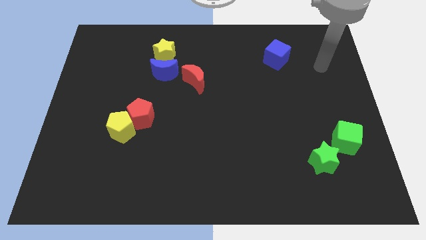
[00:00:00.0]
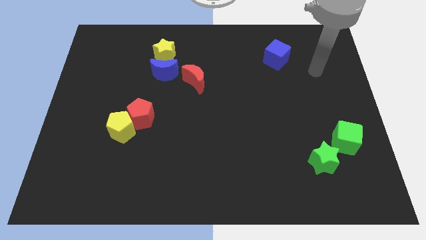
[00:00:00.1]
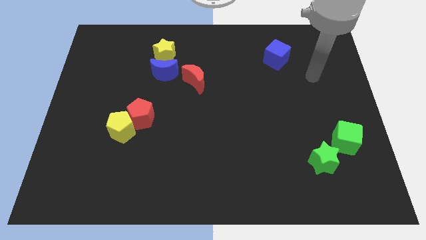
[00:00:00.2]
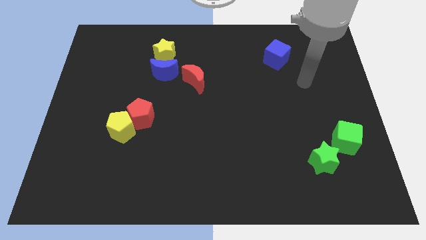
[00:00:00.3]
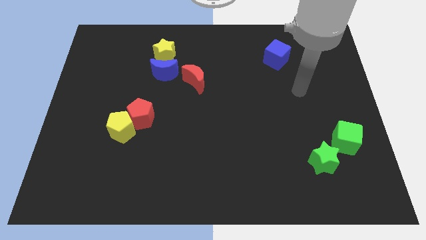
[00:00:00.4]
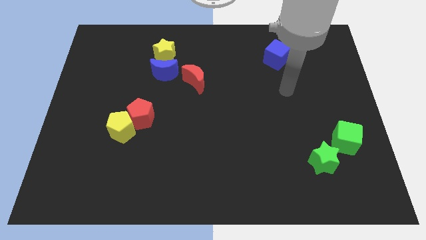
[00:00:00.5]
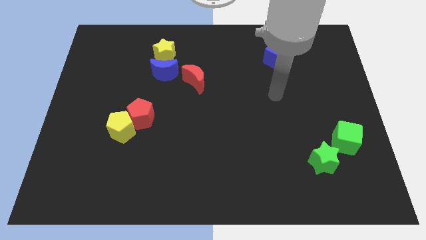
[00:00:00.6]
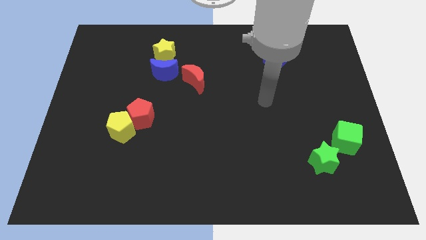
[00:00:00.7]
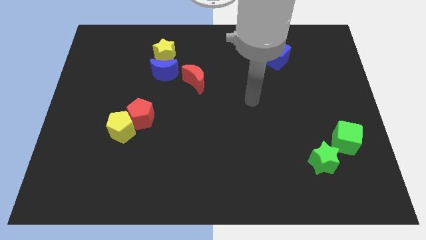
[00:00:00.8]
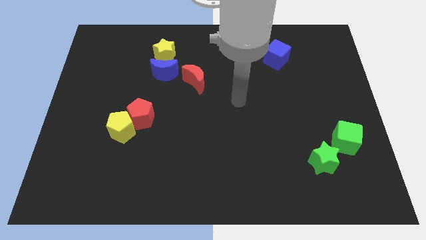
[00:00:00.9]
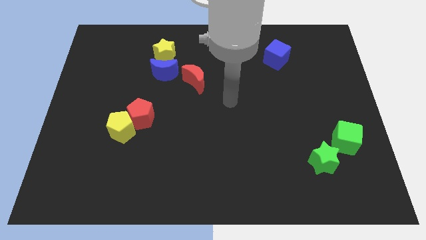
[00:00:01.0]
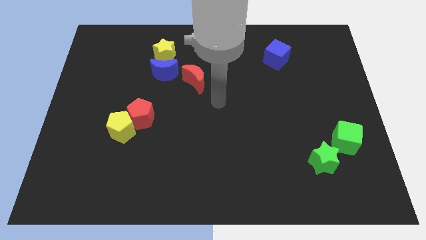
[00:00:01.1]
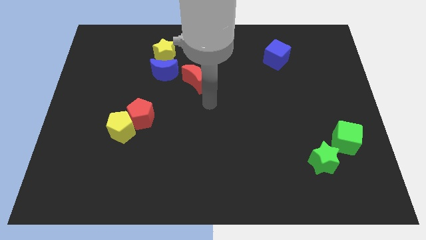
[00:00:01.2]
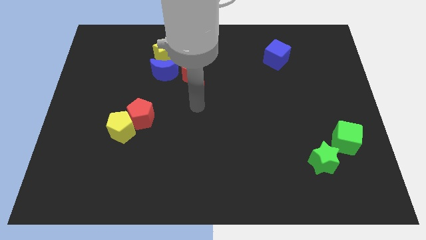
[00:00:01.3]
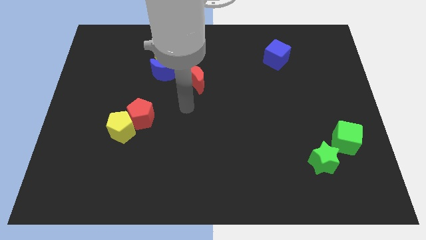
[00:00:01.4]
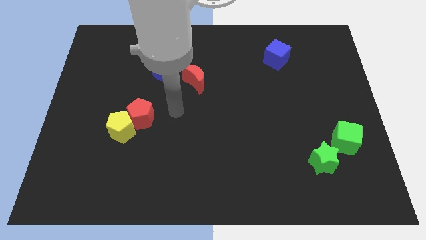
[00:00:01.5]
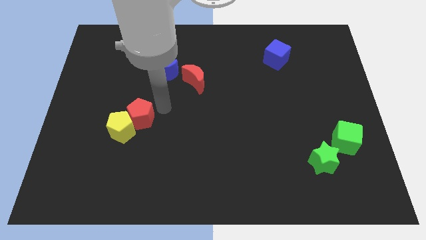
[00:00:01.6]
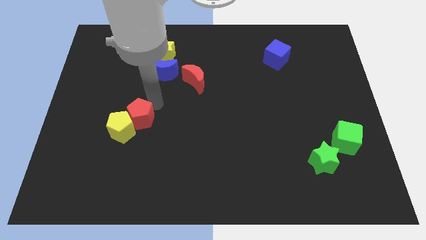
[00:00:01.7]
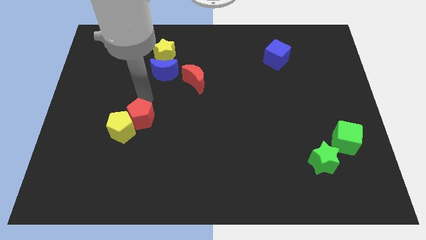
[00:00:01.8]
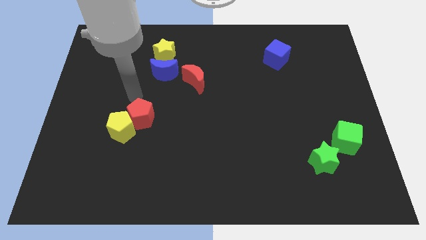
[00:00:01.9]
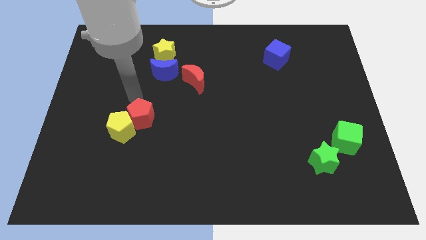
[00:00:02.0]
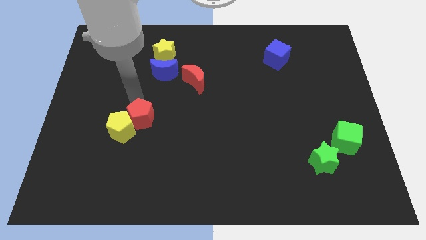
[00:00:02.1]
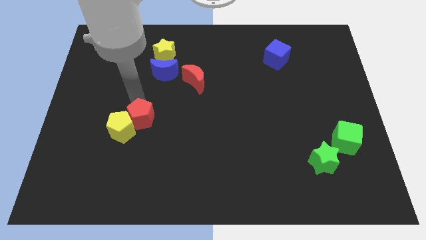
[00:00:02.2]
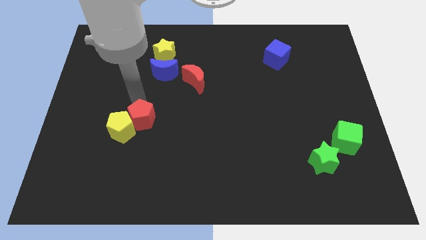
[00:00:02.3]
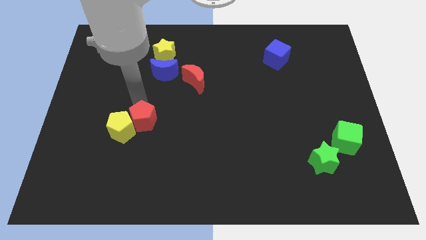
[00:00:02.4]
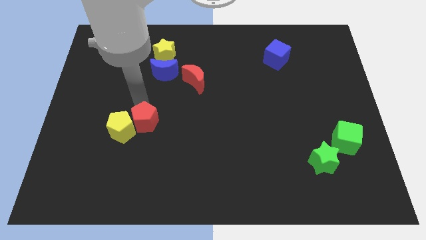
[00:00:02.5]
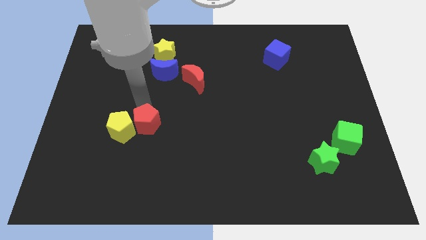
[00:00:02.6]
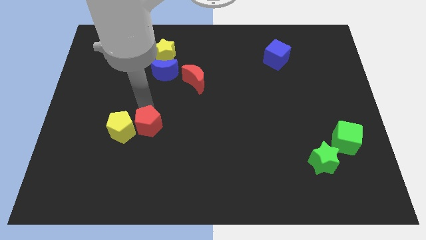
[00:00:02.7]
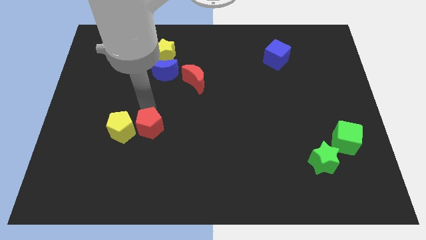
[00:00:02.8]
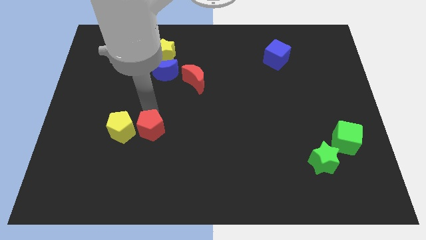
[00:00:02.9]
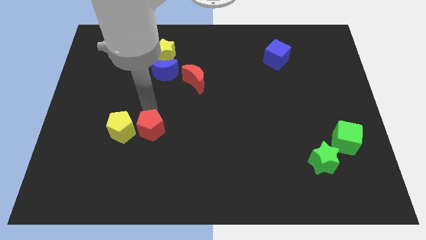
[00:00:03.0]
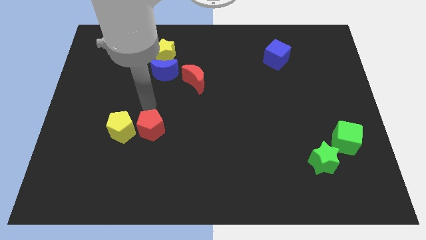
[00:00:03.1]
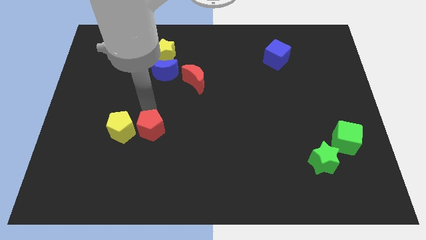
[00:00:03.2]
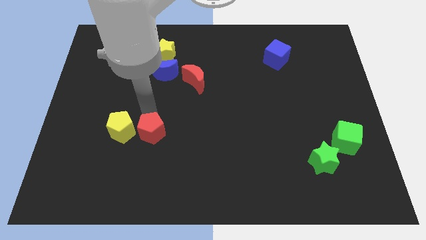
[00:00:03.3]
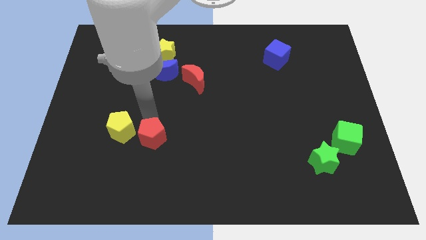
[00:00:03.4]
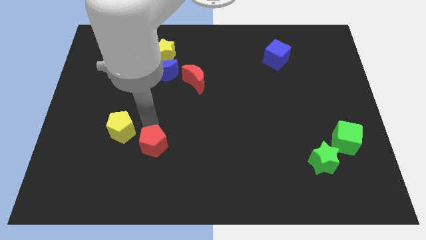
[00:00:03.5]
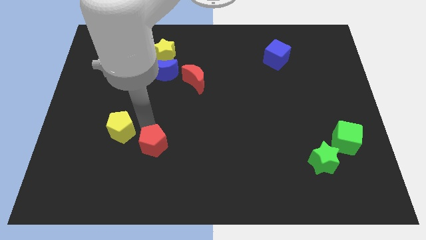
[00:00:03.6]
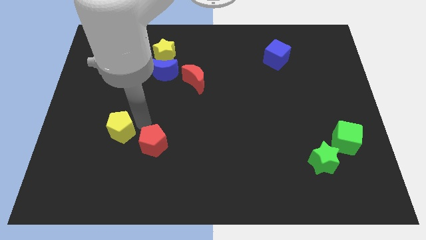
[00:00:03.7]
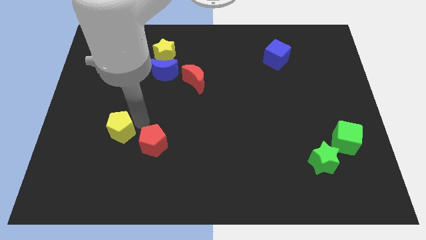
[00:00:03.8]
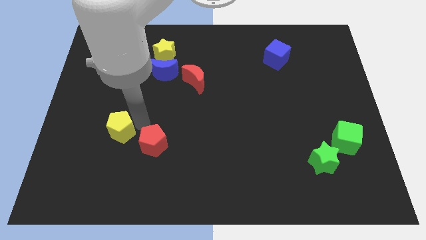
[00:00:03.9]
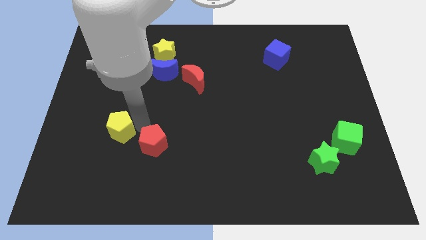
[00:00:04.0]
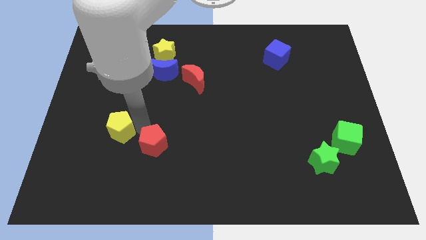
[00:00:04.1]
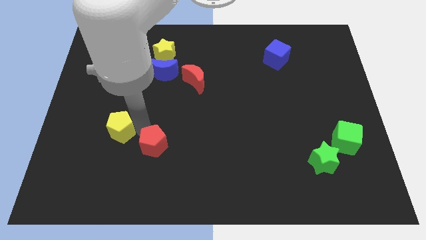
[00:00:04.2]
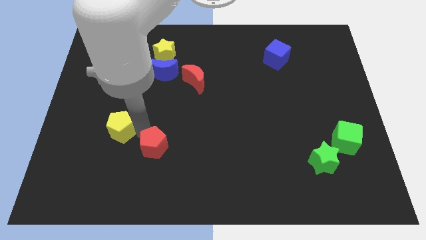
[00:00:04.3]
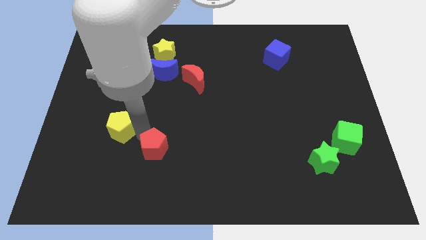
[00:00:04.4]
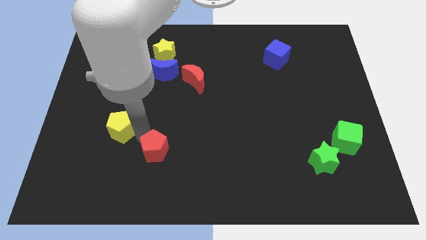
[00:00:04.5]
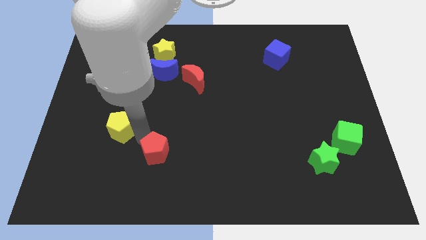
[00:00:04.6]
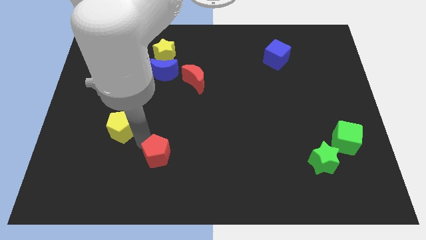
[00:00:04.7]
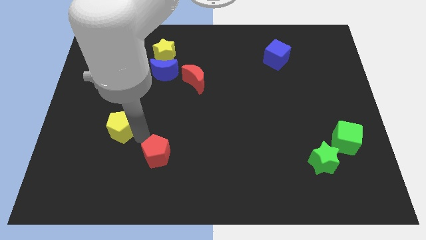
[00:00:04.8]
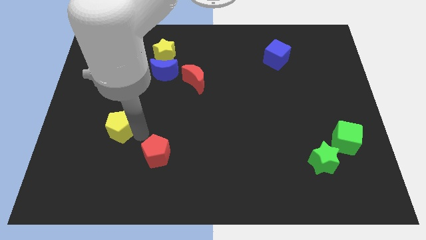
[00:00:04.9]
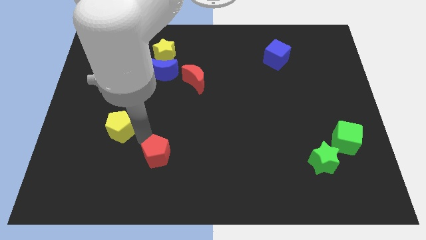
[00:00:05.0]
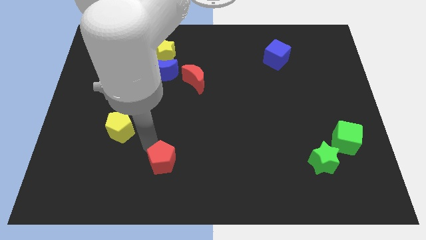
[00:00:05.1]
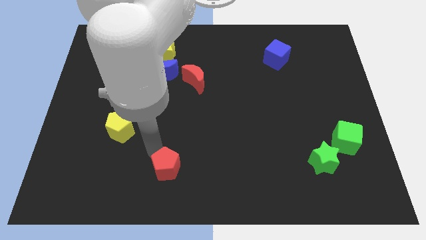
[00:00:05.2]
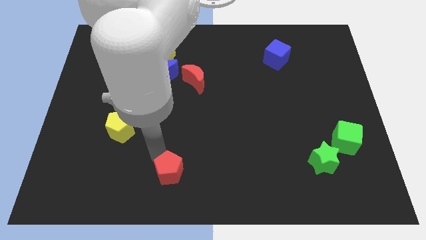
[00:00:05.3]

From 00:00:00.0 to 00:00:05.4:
put the red pentagon to the bottom

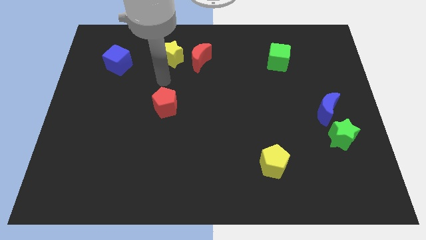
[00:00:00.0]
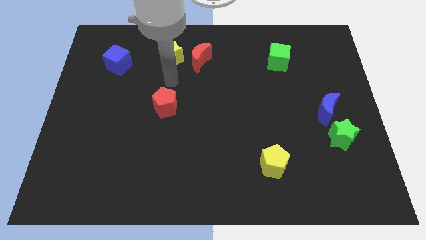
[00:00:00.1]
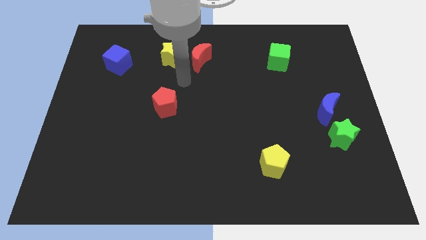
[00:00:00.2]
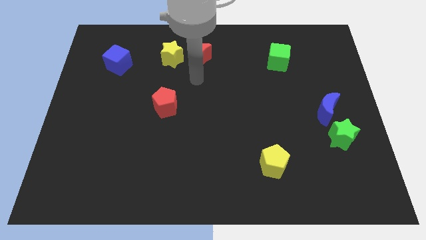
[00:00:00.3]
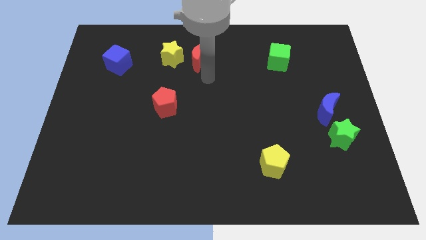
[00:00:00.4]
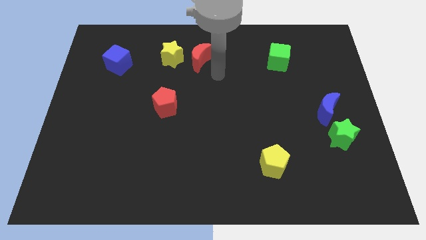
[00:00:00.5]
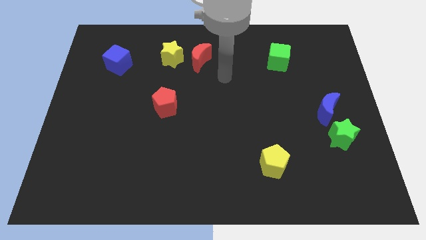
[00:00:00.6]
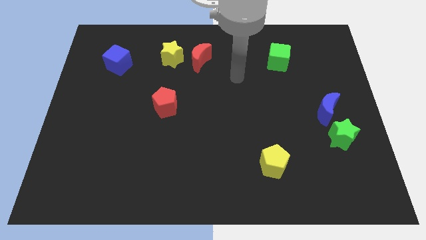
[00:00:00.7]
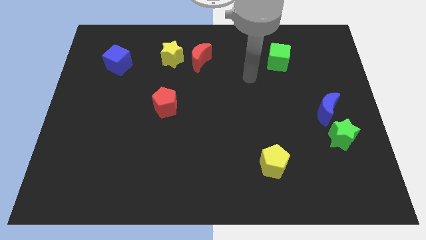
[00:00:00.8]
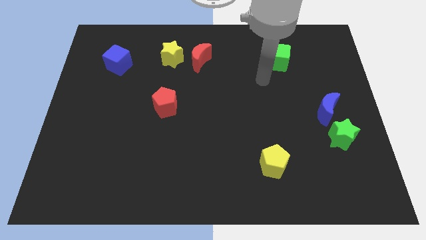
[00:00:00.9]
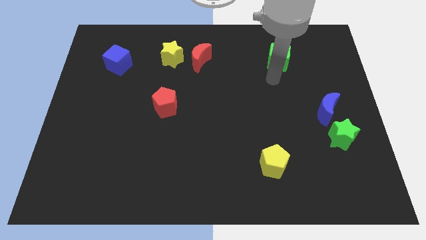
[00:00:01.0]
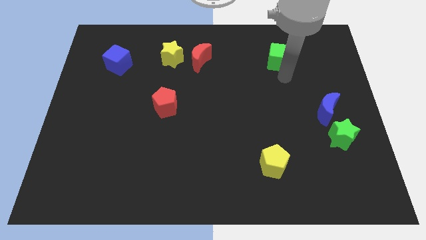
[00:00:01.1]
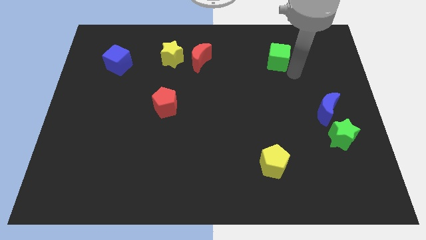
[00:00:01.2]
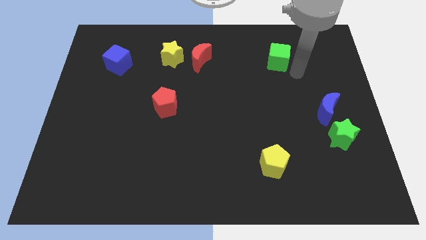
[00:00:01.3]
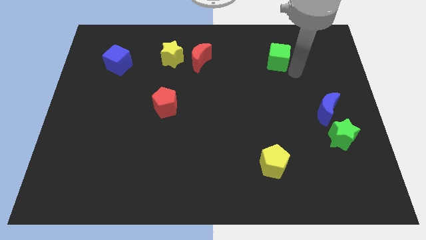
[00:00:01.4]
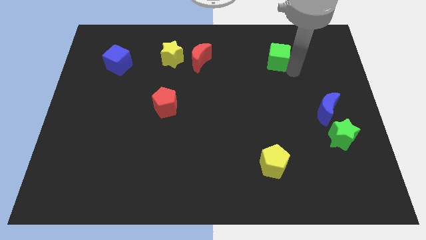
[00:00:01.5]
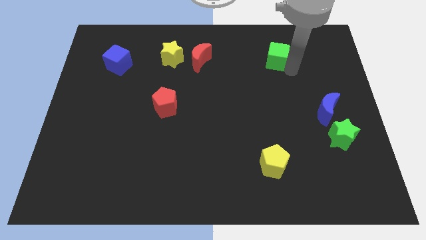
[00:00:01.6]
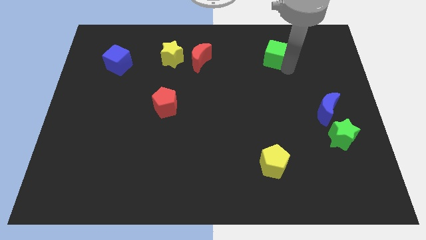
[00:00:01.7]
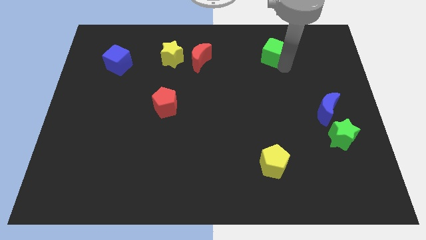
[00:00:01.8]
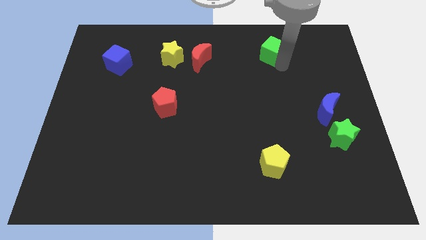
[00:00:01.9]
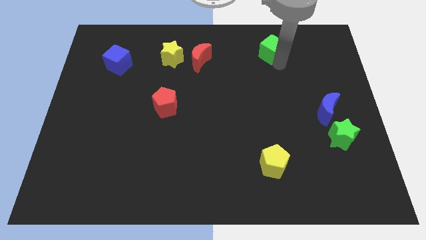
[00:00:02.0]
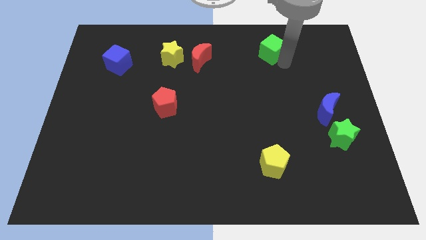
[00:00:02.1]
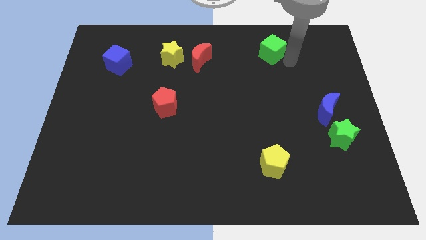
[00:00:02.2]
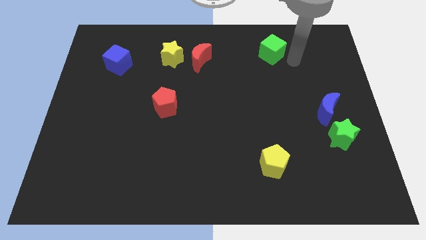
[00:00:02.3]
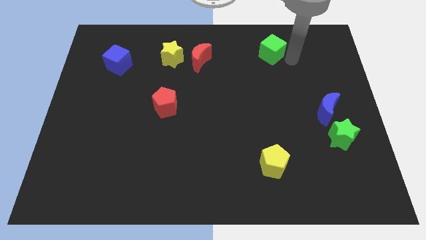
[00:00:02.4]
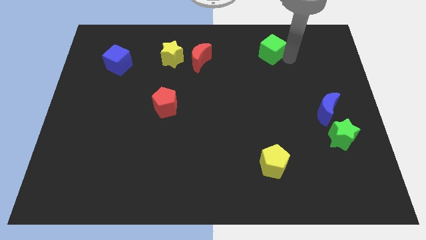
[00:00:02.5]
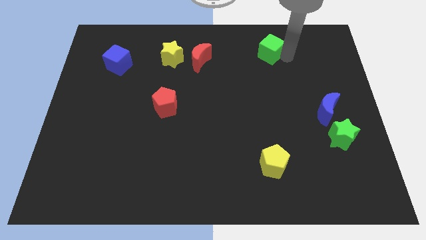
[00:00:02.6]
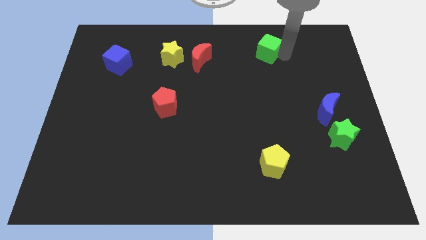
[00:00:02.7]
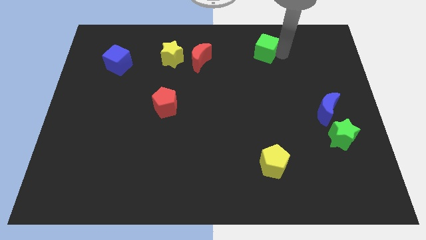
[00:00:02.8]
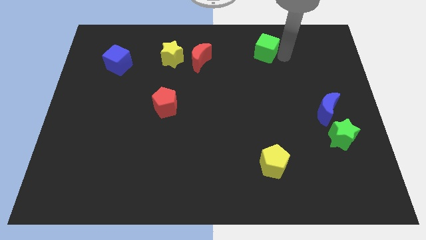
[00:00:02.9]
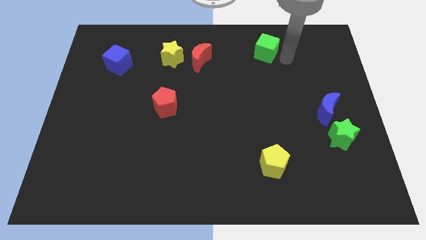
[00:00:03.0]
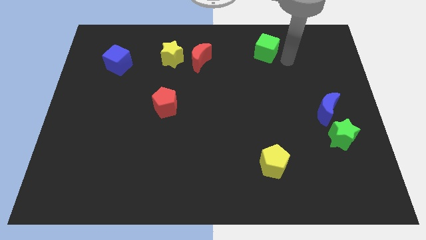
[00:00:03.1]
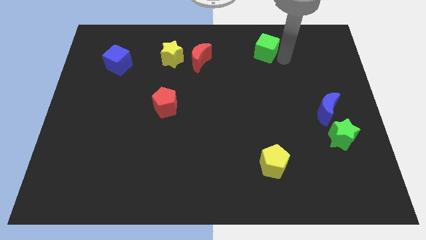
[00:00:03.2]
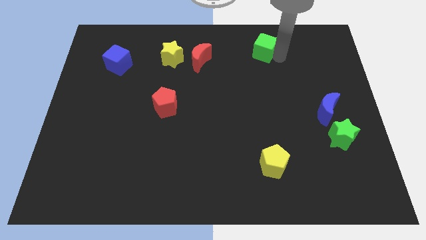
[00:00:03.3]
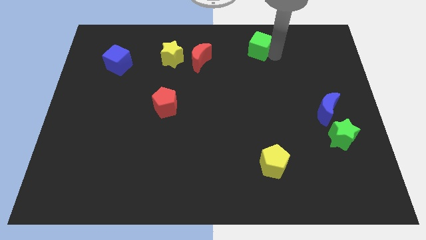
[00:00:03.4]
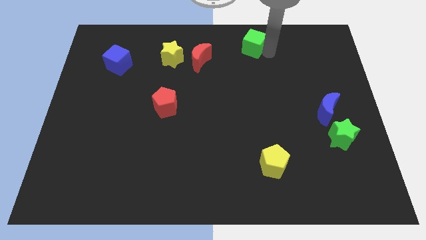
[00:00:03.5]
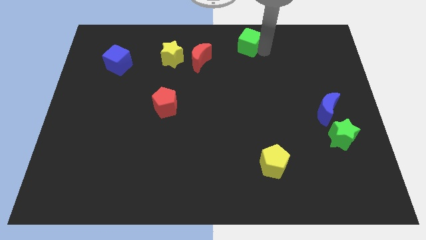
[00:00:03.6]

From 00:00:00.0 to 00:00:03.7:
push the green cube to the top
